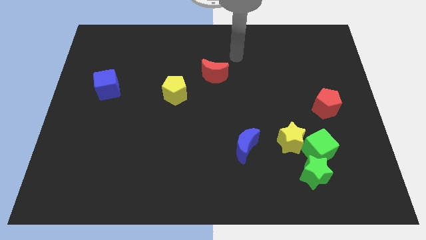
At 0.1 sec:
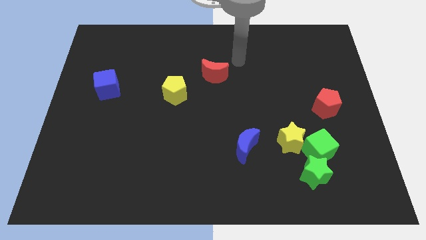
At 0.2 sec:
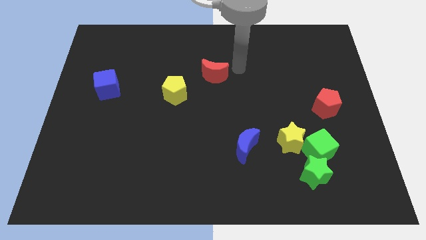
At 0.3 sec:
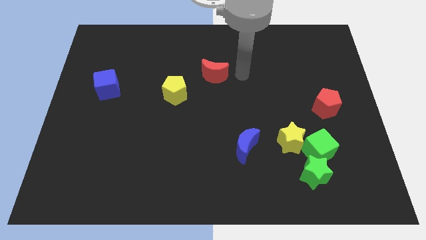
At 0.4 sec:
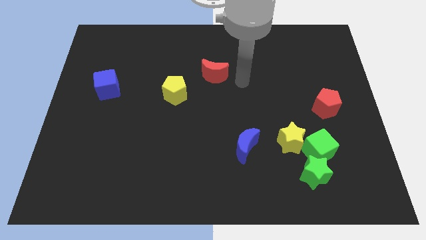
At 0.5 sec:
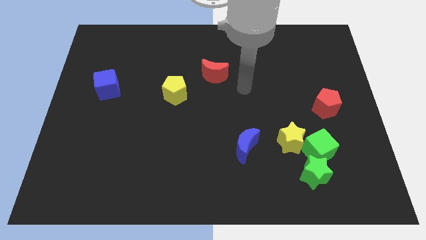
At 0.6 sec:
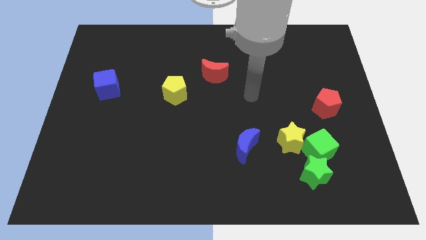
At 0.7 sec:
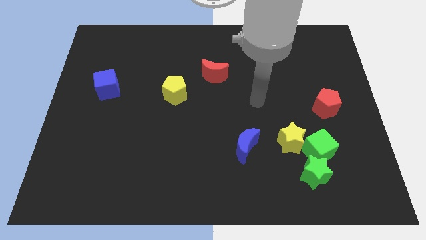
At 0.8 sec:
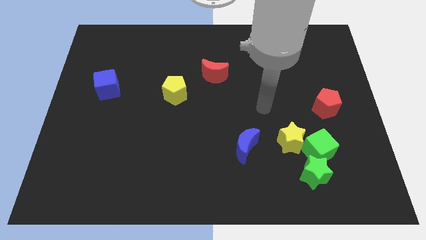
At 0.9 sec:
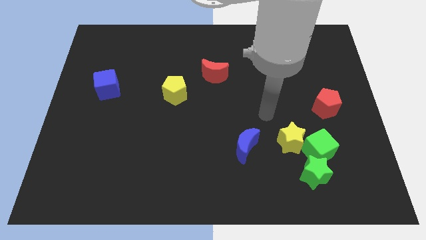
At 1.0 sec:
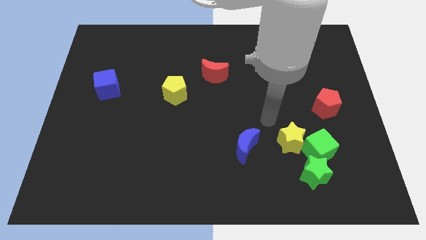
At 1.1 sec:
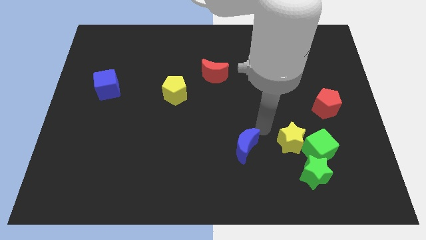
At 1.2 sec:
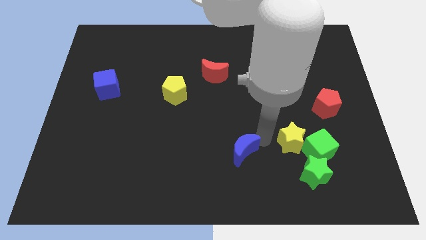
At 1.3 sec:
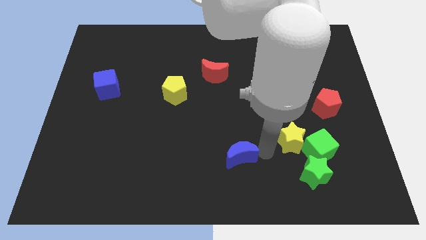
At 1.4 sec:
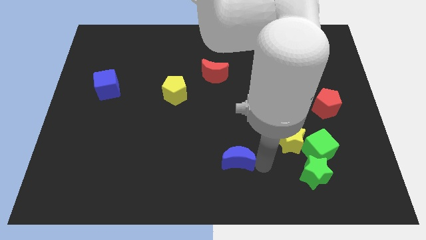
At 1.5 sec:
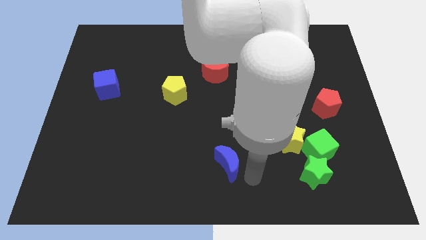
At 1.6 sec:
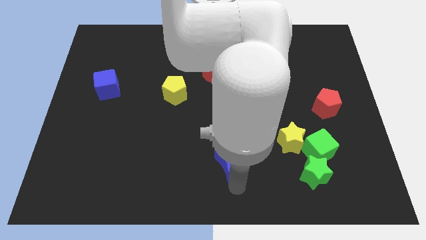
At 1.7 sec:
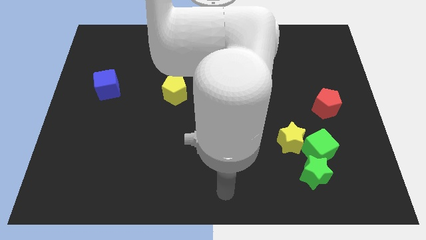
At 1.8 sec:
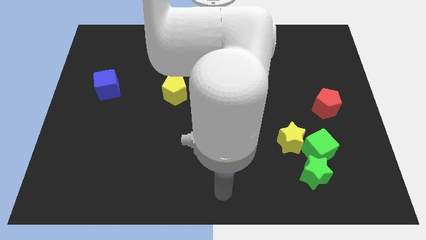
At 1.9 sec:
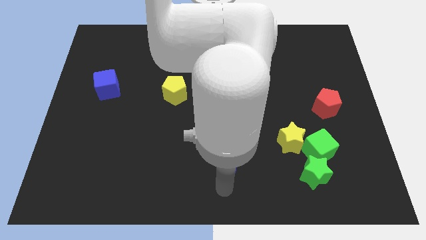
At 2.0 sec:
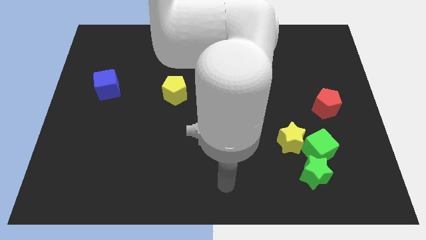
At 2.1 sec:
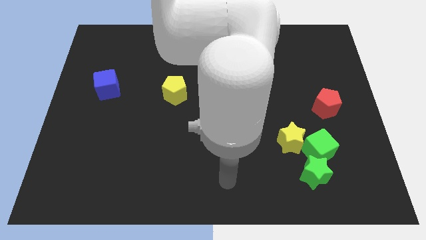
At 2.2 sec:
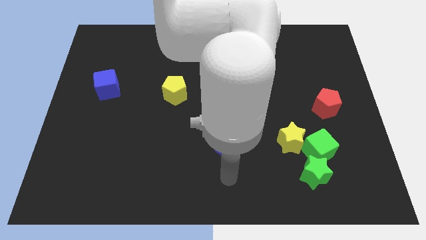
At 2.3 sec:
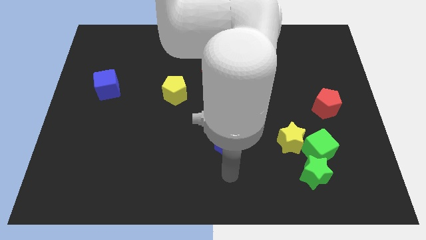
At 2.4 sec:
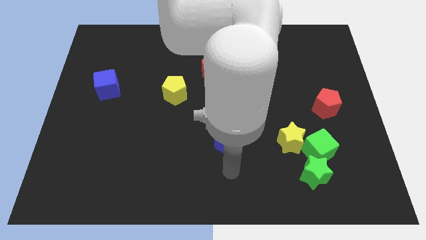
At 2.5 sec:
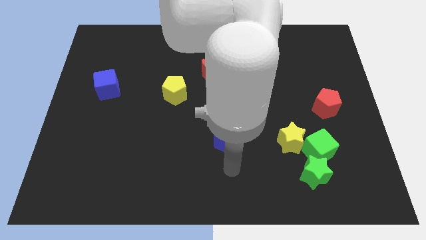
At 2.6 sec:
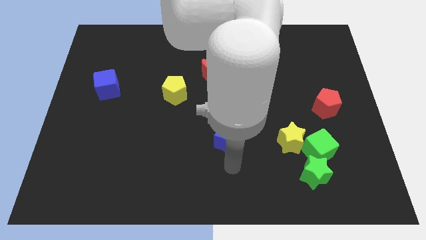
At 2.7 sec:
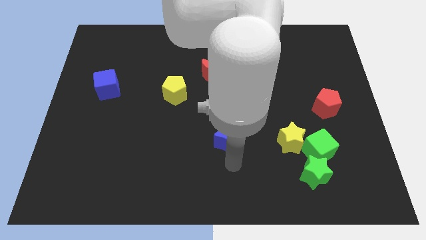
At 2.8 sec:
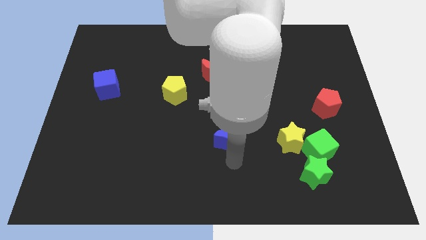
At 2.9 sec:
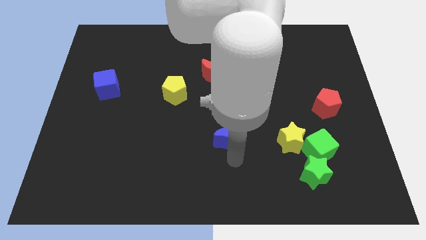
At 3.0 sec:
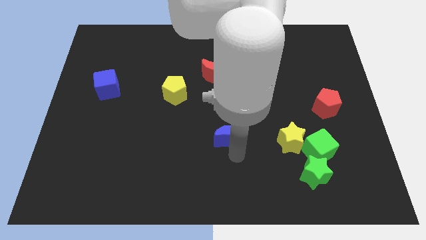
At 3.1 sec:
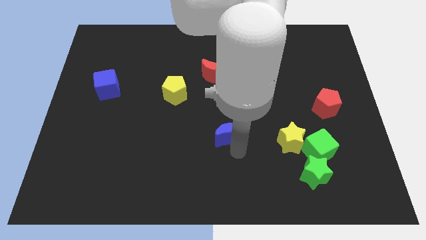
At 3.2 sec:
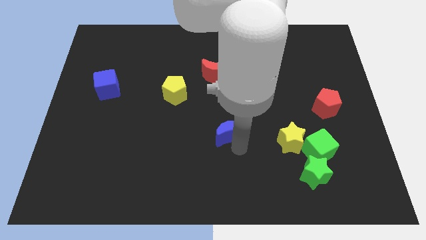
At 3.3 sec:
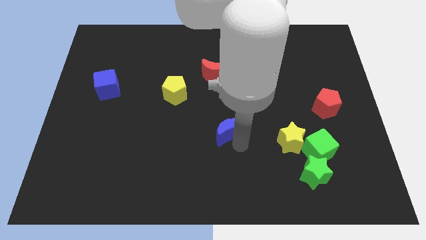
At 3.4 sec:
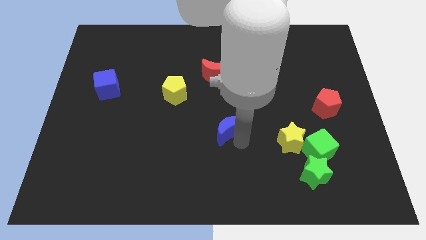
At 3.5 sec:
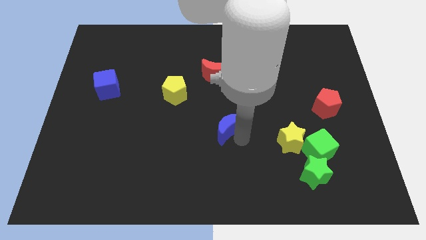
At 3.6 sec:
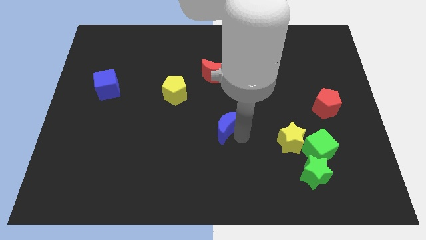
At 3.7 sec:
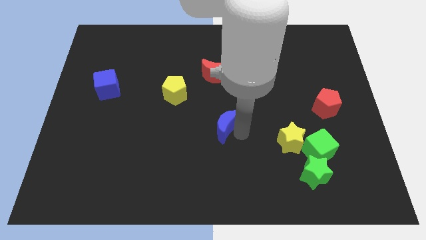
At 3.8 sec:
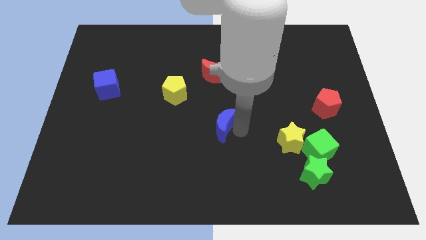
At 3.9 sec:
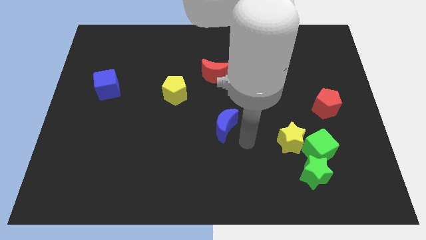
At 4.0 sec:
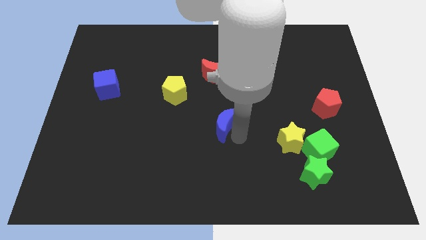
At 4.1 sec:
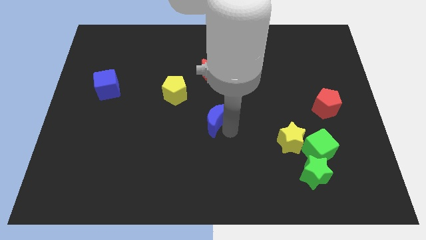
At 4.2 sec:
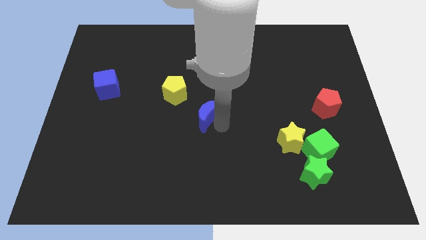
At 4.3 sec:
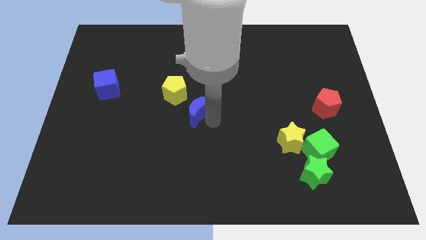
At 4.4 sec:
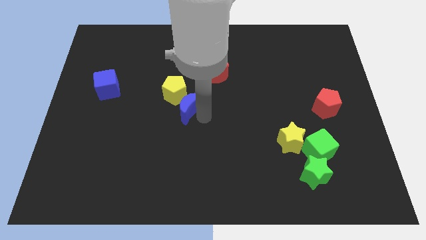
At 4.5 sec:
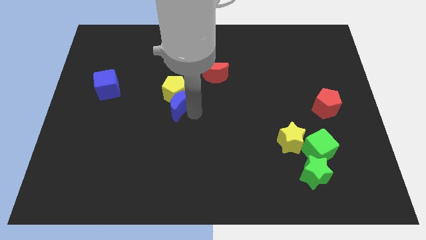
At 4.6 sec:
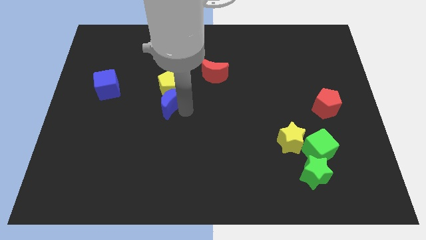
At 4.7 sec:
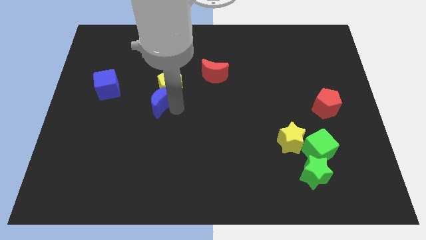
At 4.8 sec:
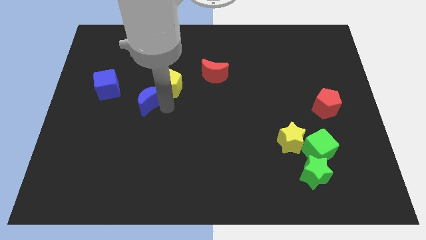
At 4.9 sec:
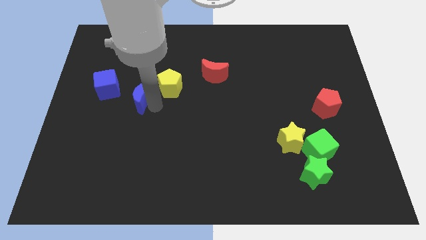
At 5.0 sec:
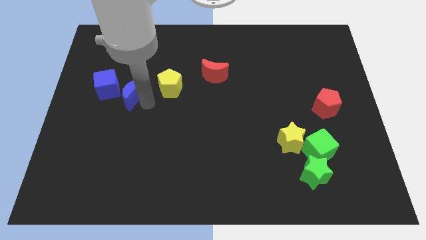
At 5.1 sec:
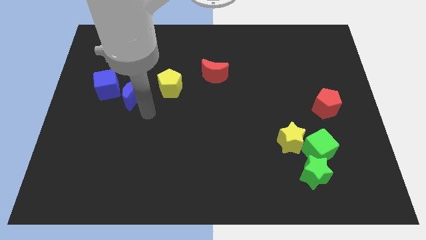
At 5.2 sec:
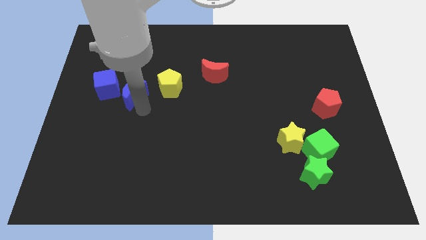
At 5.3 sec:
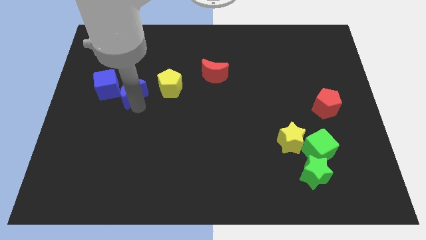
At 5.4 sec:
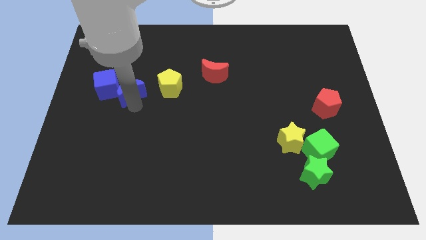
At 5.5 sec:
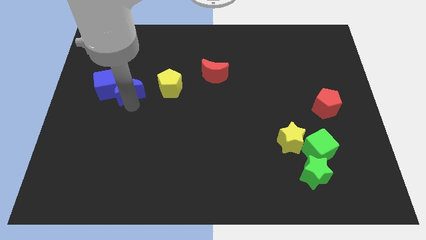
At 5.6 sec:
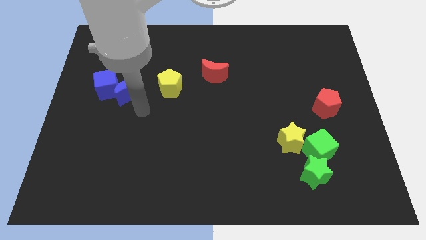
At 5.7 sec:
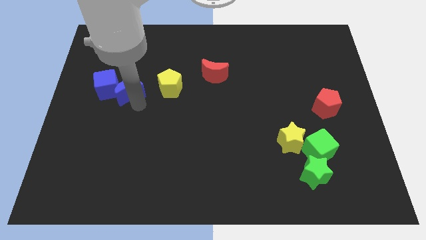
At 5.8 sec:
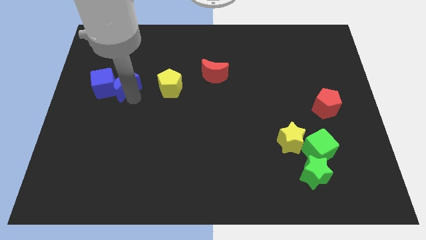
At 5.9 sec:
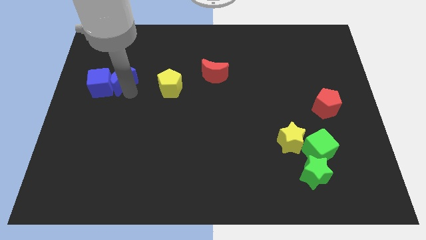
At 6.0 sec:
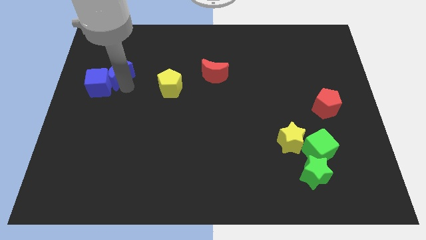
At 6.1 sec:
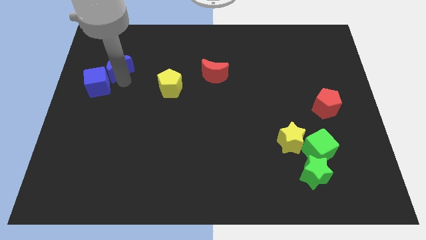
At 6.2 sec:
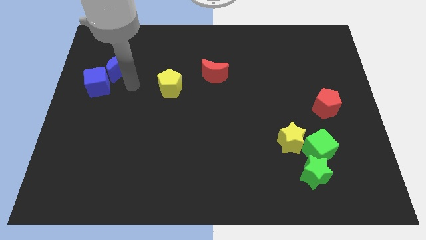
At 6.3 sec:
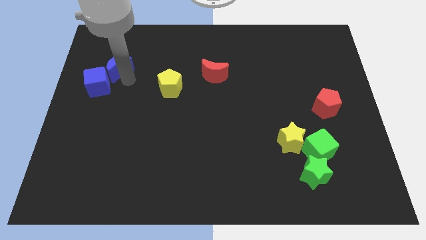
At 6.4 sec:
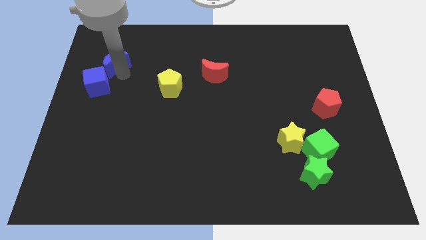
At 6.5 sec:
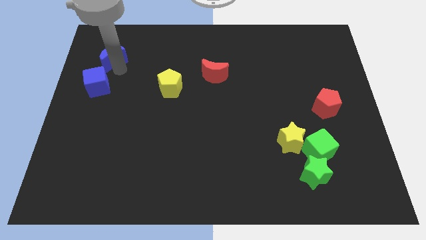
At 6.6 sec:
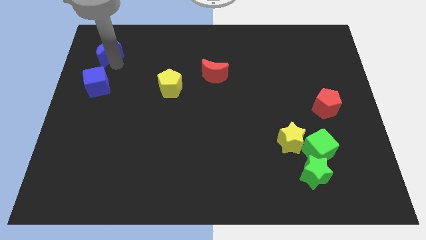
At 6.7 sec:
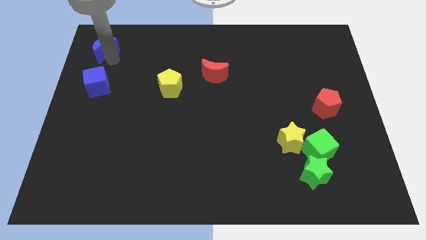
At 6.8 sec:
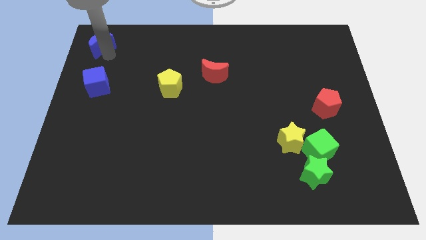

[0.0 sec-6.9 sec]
push the blue moon to the top left of the board
